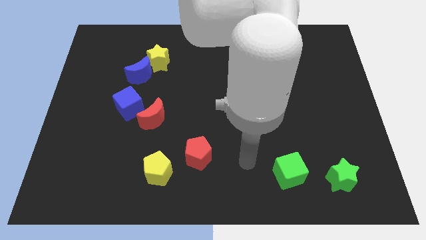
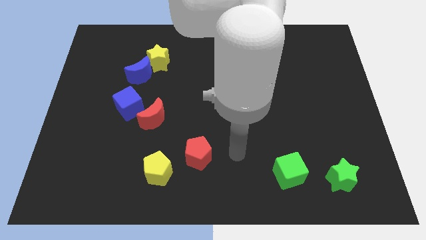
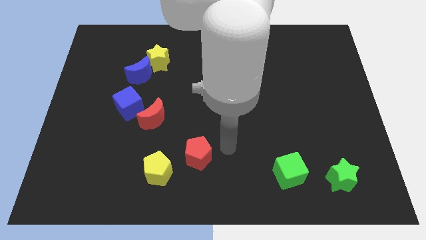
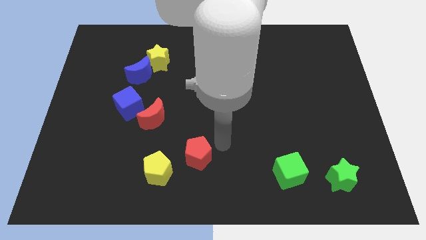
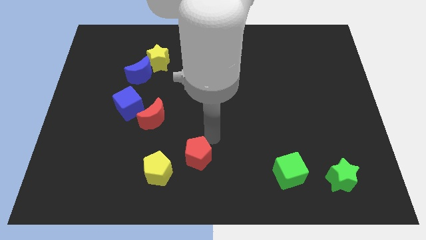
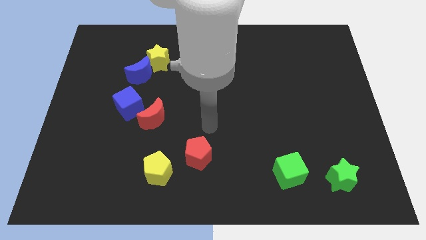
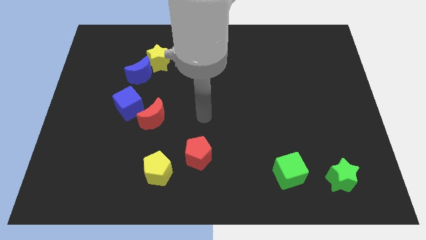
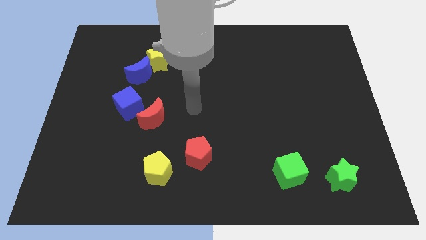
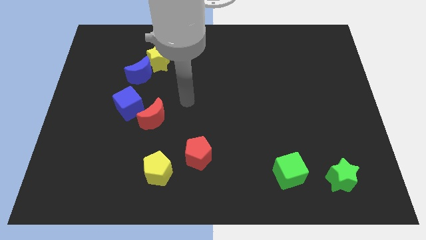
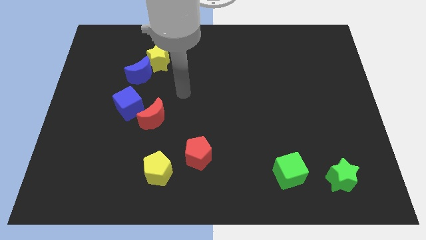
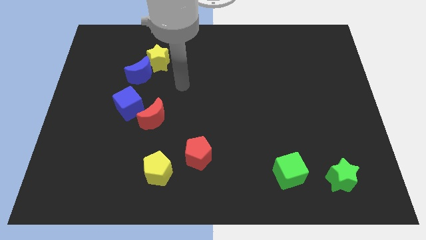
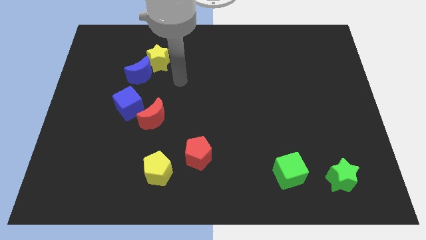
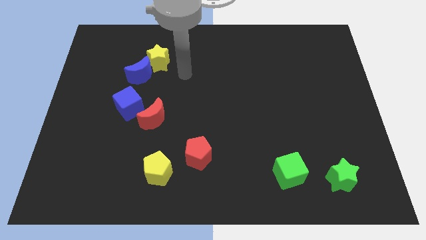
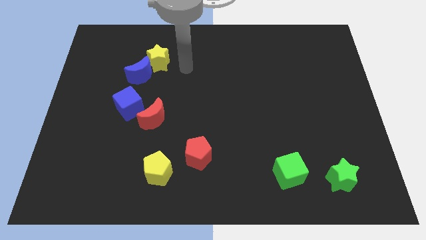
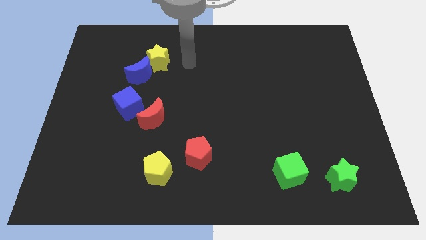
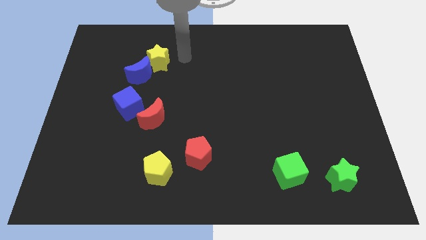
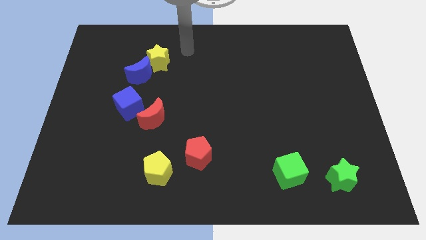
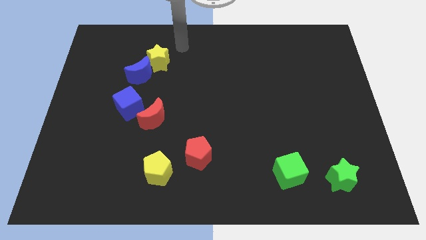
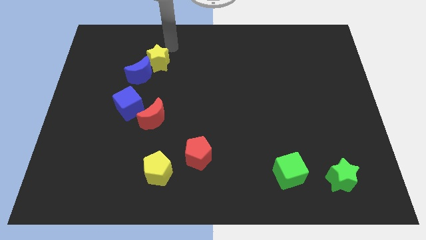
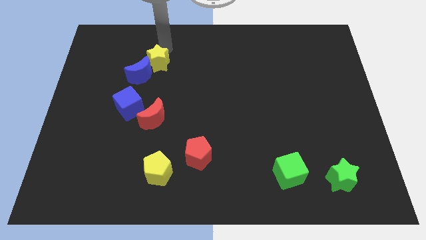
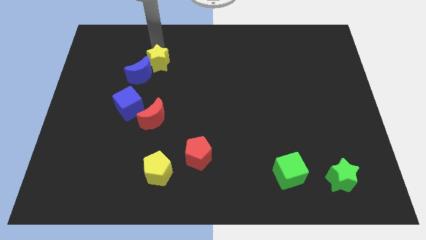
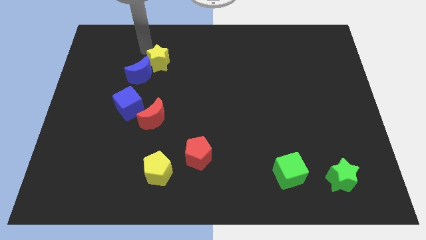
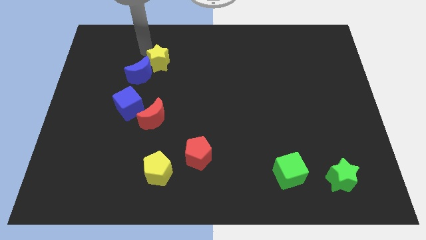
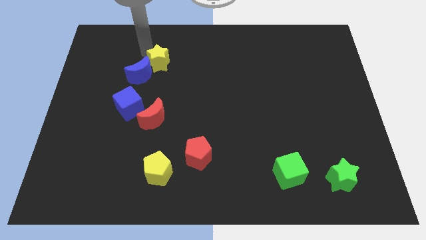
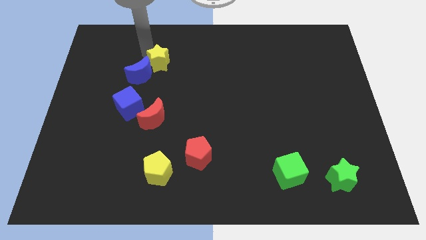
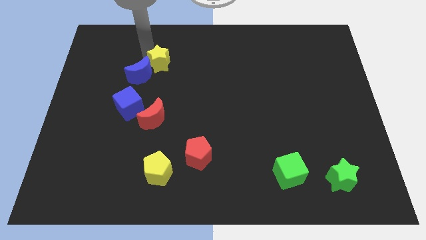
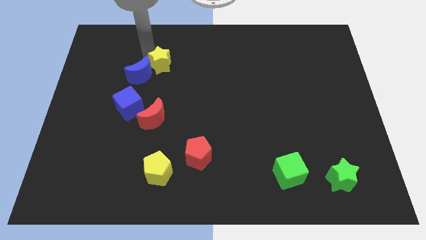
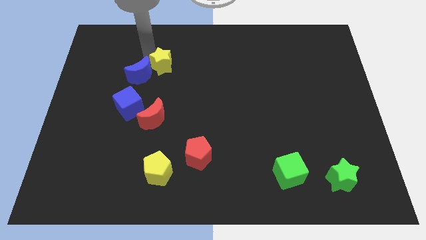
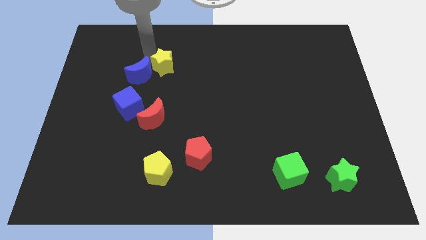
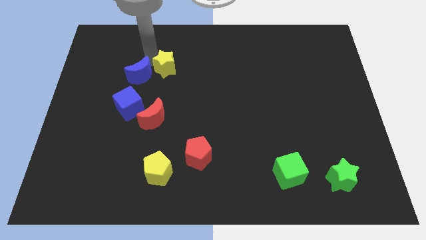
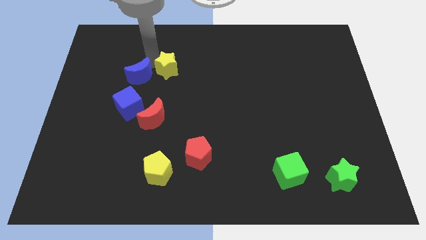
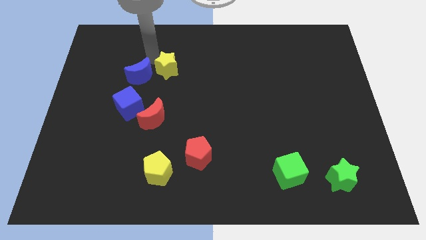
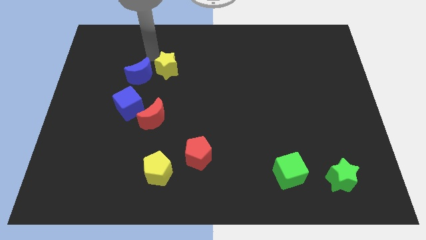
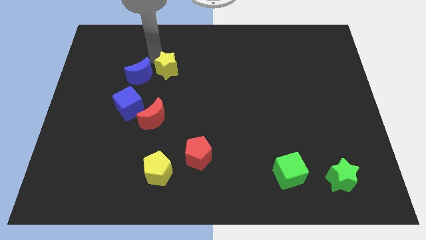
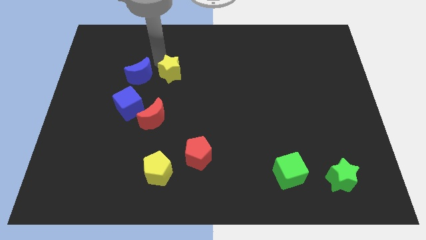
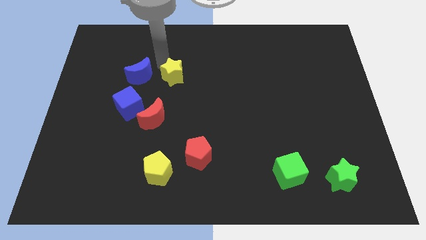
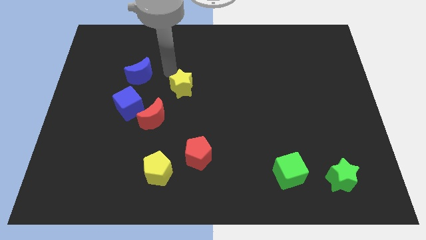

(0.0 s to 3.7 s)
push the yellow star slightly diagonally downwards and to the right

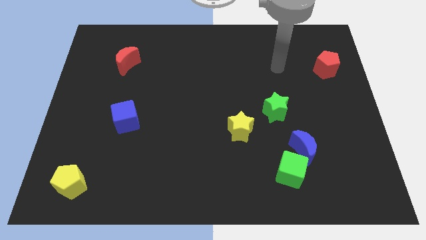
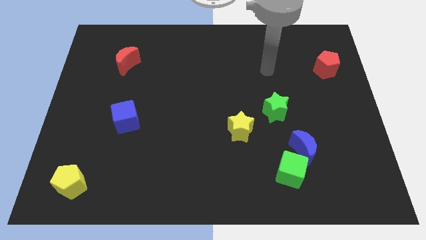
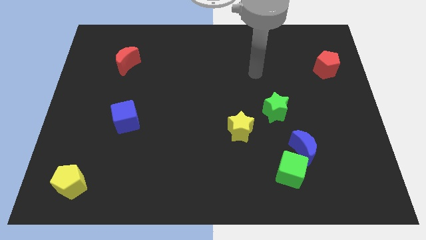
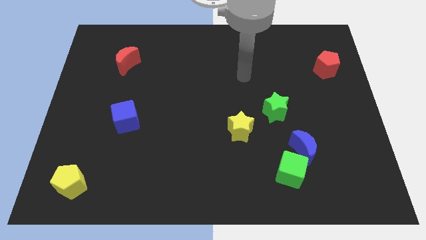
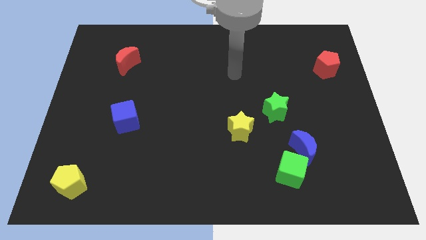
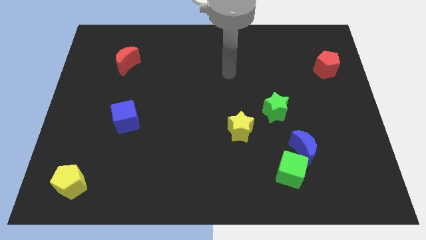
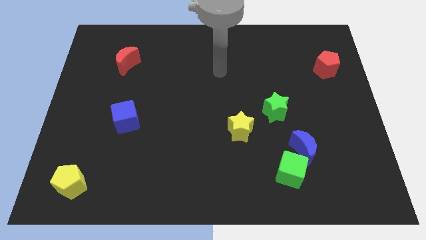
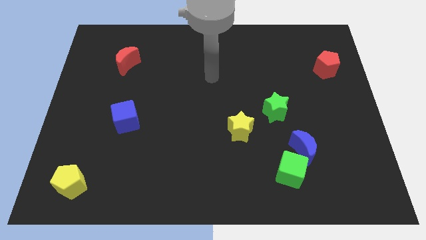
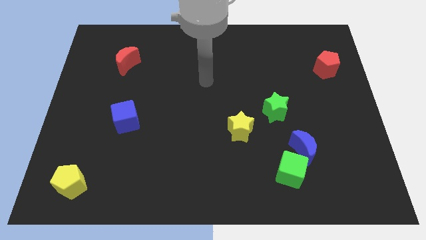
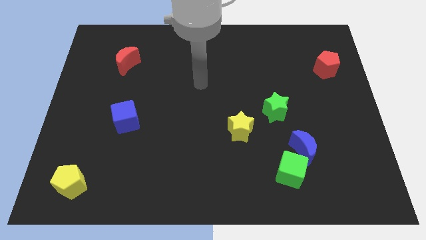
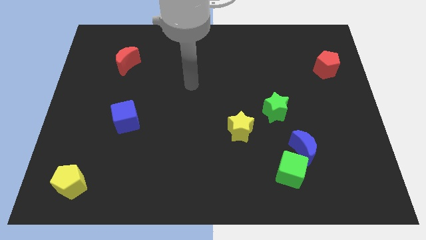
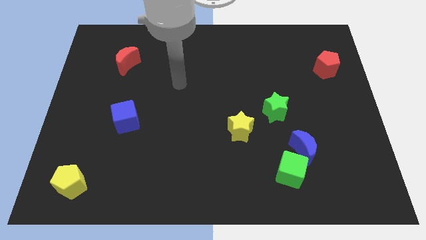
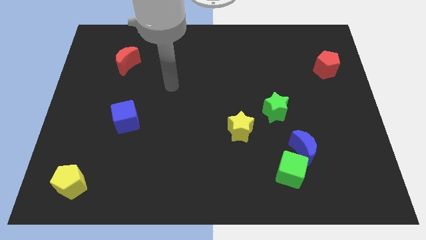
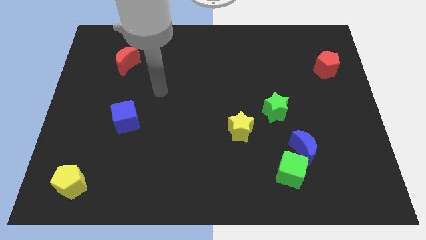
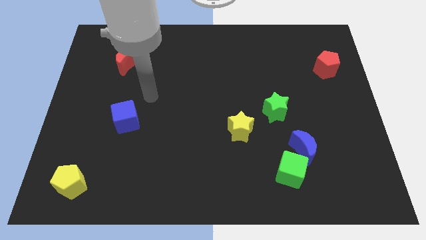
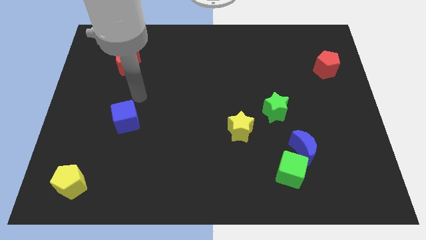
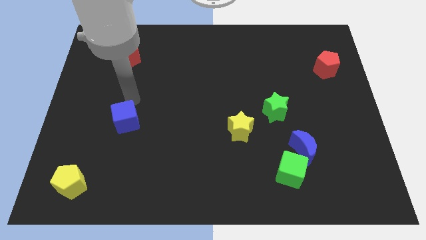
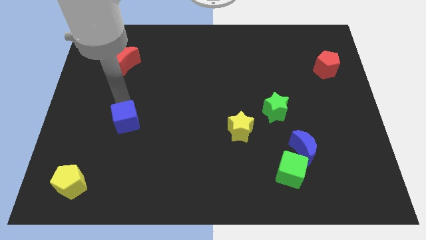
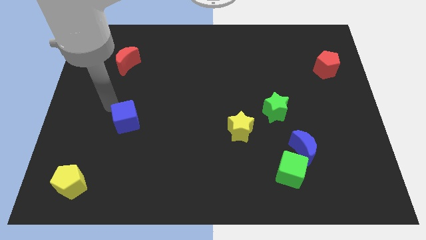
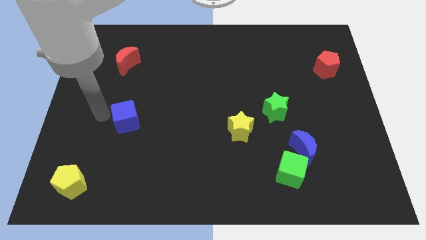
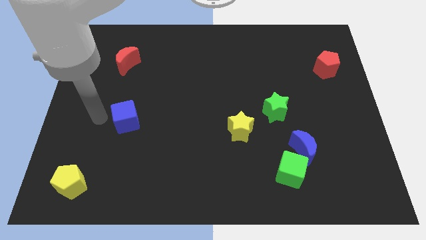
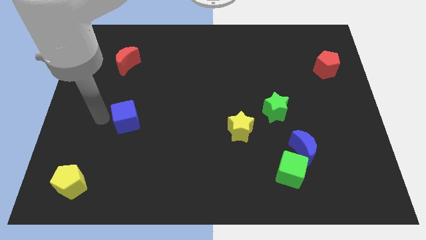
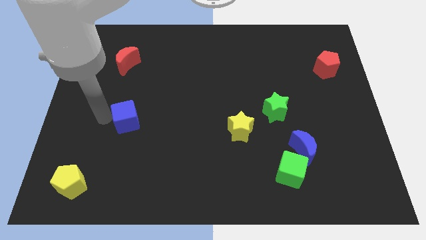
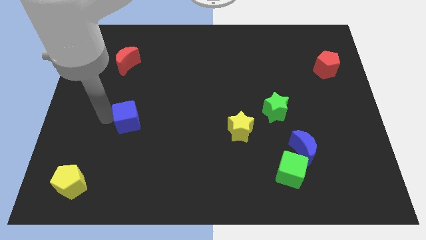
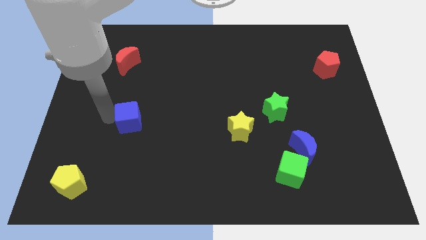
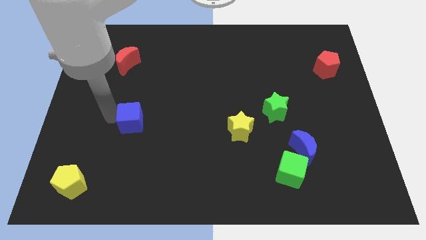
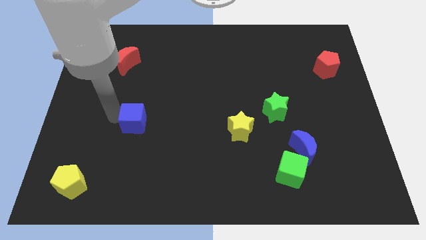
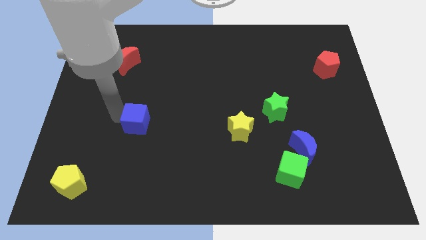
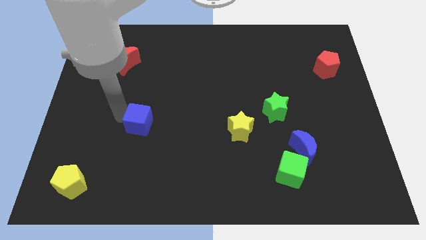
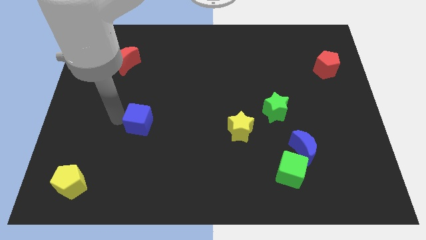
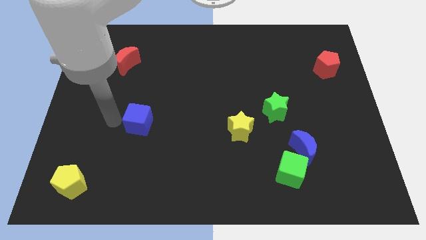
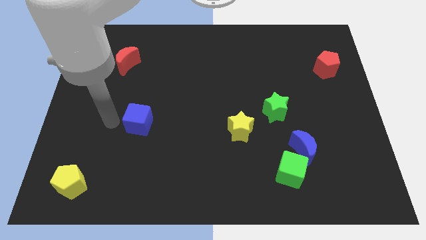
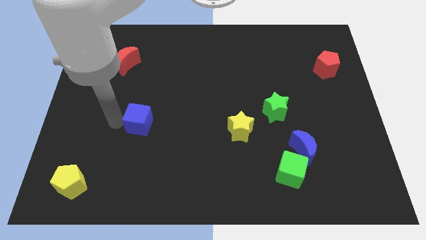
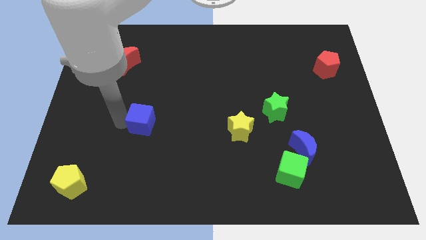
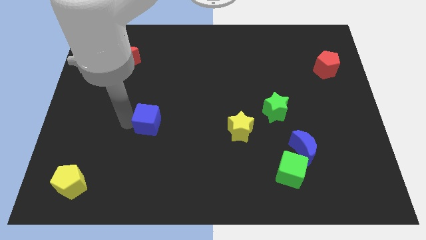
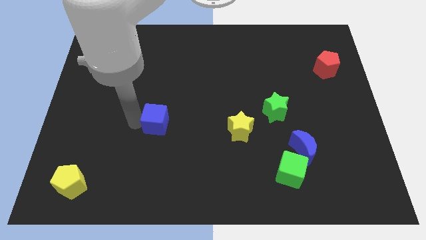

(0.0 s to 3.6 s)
slide the blue cube a little bit to the right
